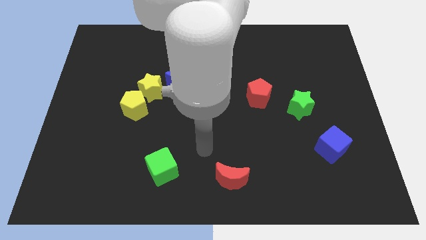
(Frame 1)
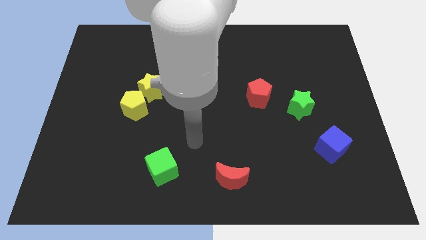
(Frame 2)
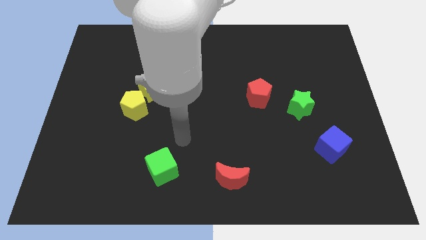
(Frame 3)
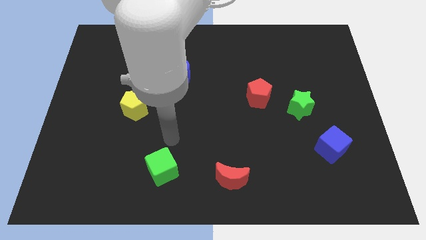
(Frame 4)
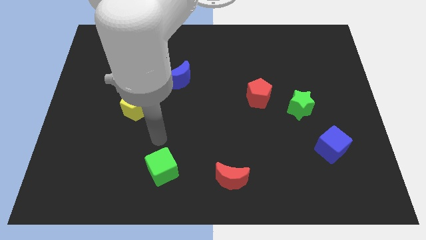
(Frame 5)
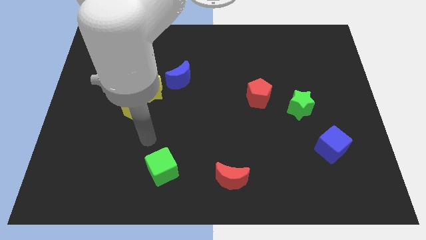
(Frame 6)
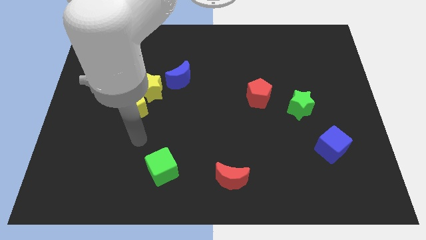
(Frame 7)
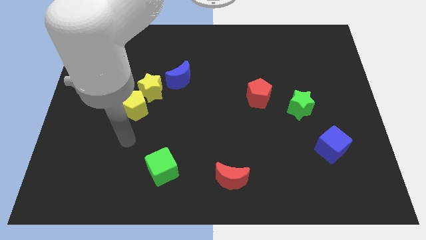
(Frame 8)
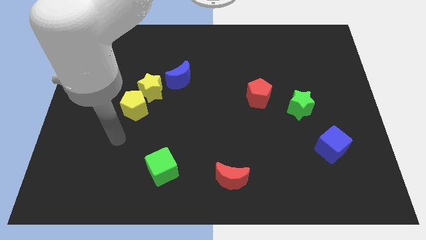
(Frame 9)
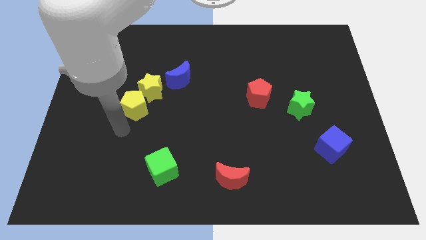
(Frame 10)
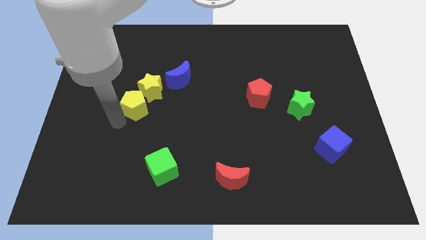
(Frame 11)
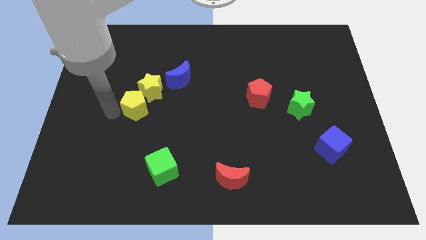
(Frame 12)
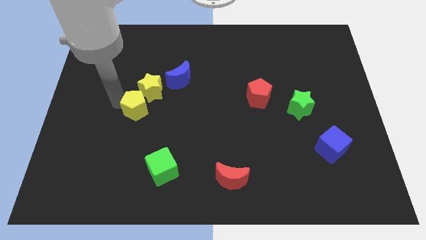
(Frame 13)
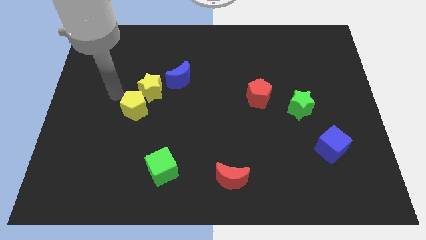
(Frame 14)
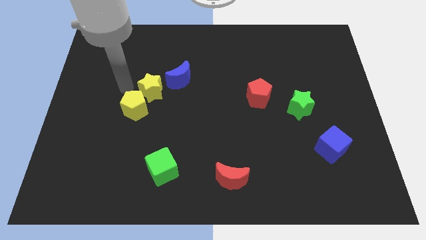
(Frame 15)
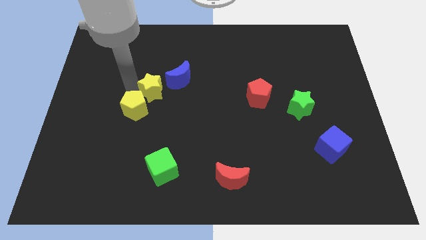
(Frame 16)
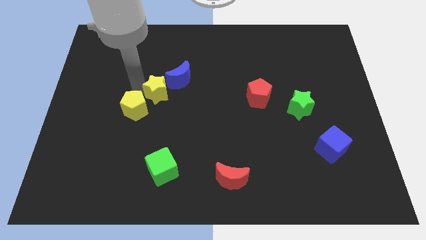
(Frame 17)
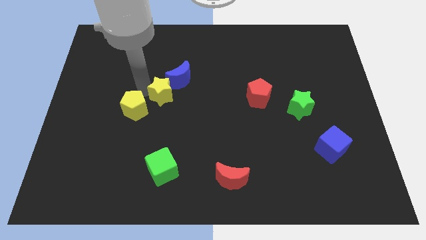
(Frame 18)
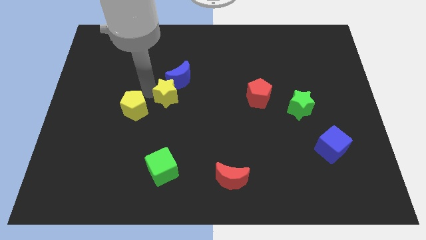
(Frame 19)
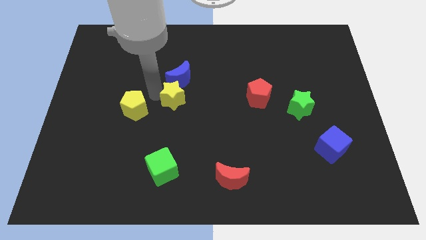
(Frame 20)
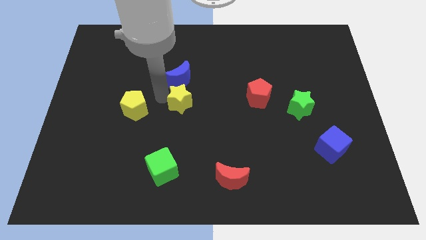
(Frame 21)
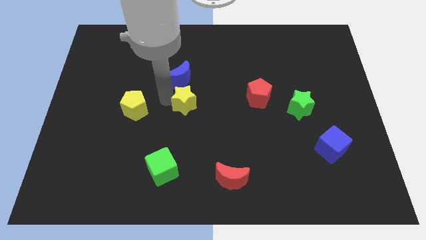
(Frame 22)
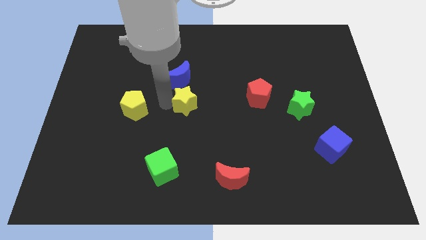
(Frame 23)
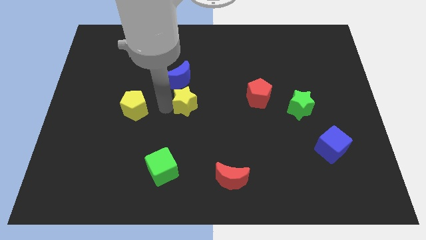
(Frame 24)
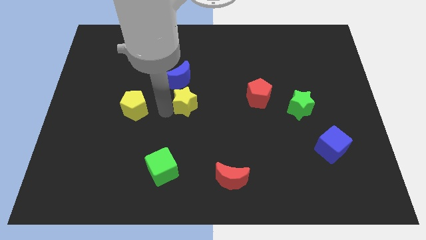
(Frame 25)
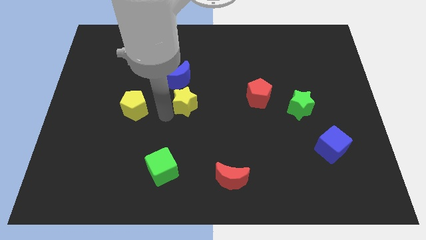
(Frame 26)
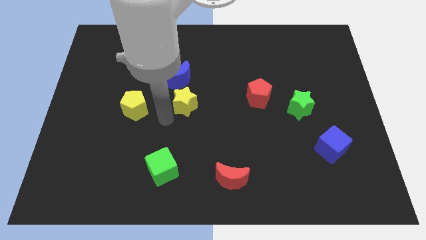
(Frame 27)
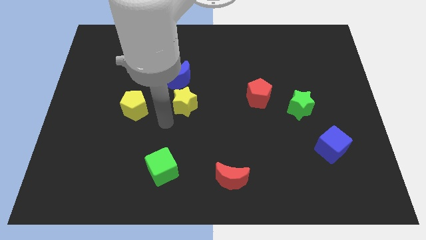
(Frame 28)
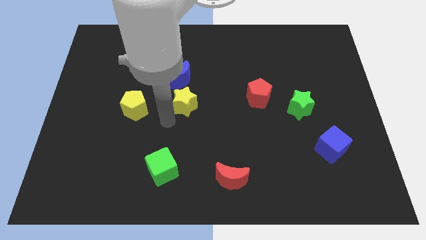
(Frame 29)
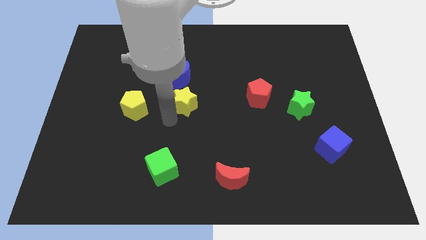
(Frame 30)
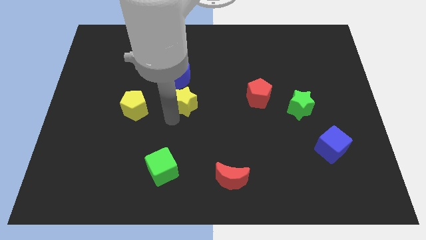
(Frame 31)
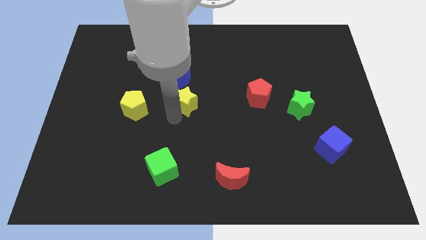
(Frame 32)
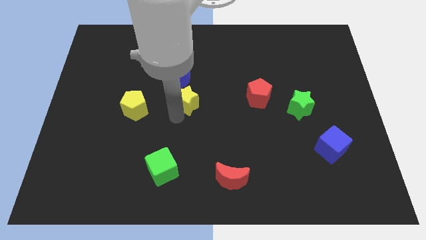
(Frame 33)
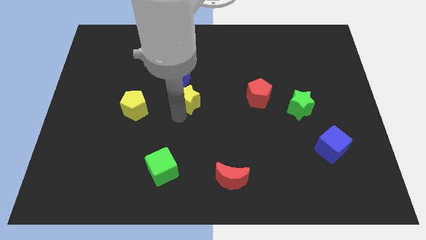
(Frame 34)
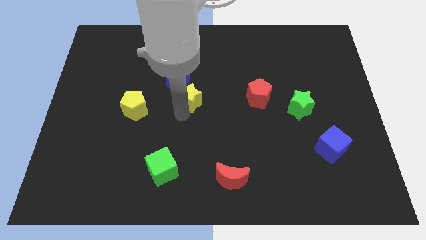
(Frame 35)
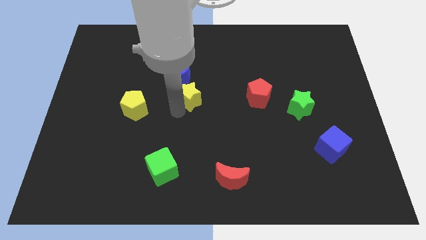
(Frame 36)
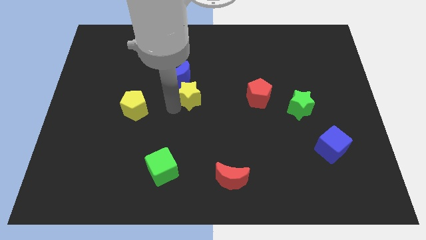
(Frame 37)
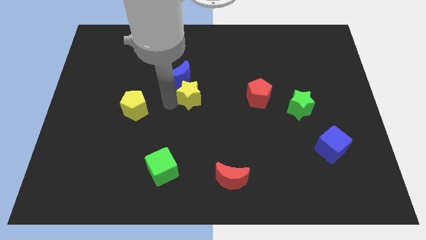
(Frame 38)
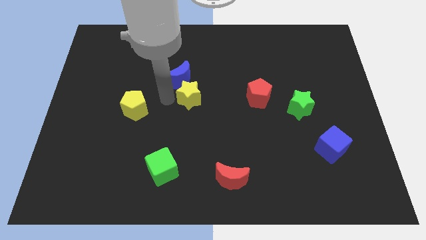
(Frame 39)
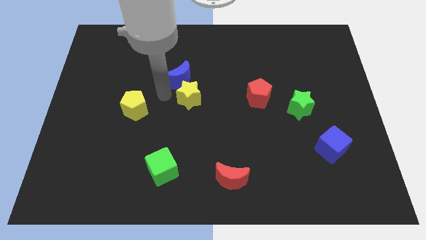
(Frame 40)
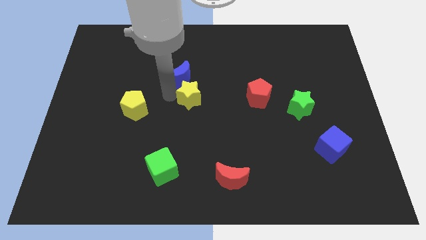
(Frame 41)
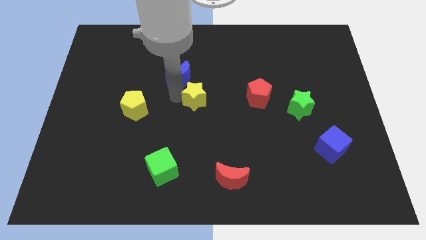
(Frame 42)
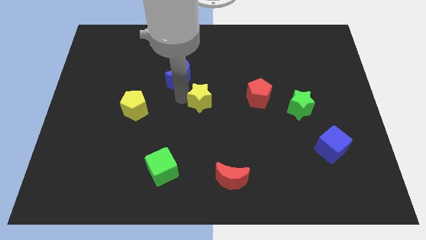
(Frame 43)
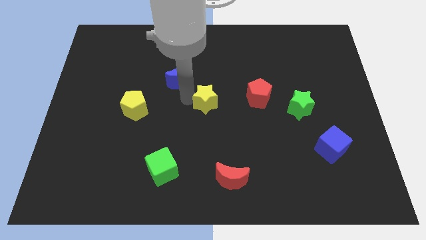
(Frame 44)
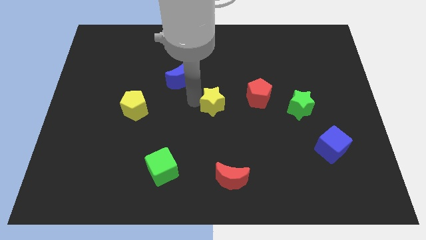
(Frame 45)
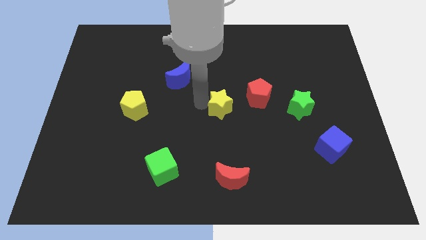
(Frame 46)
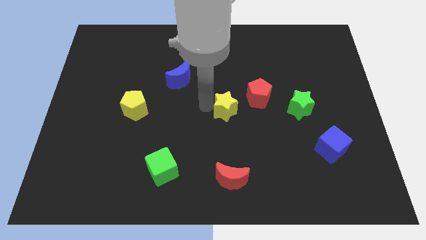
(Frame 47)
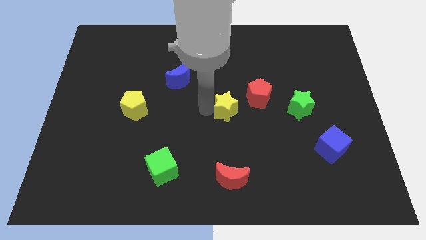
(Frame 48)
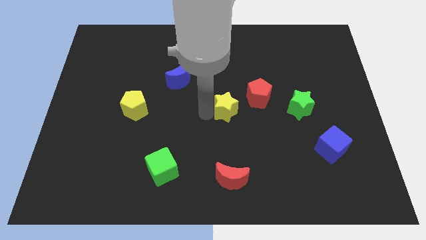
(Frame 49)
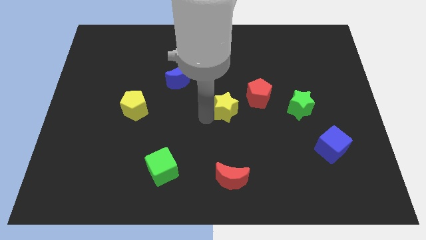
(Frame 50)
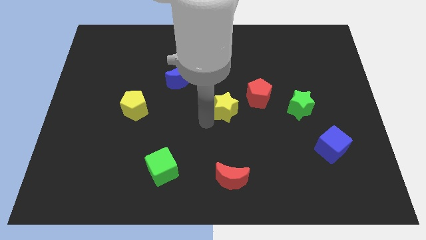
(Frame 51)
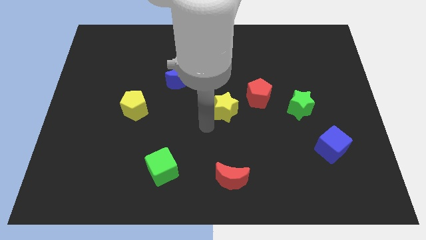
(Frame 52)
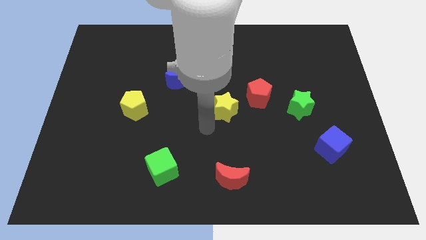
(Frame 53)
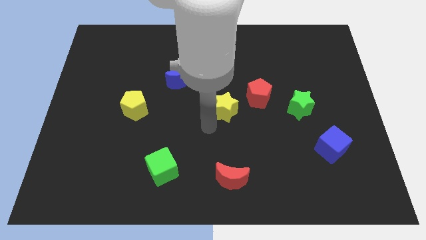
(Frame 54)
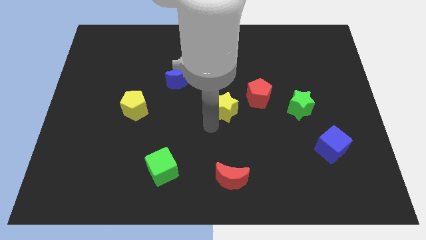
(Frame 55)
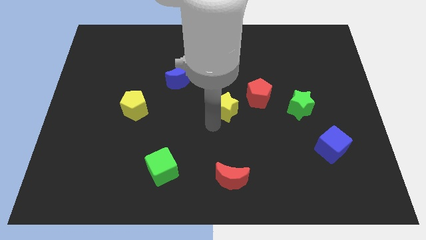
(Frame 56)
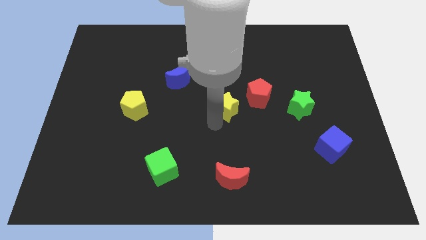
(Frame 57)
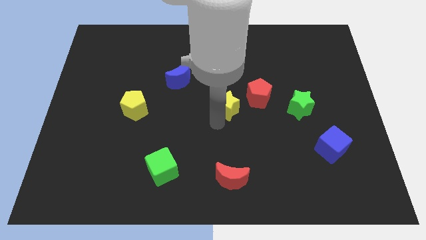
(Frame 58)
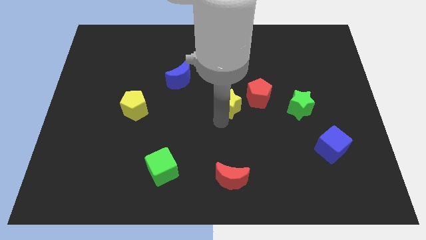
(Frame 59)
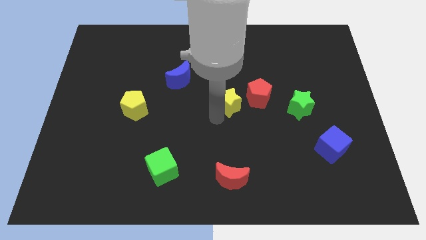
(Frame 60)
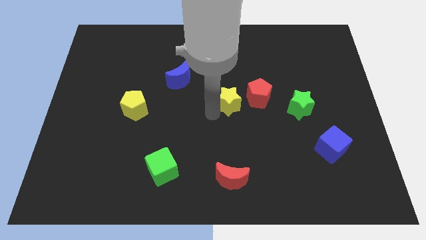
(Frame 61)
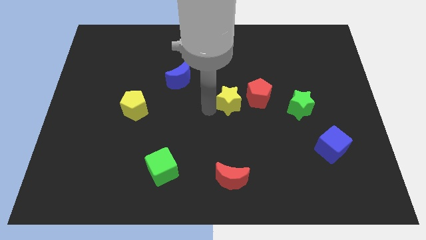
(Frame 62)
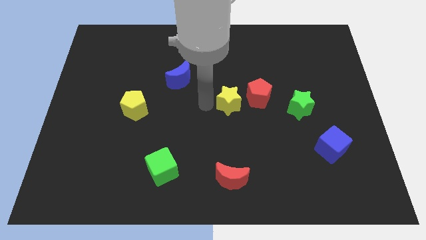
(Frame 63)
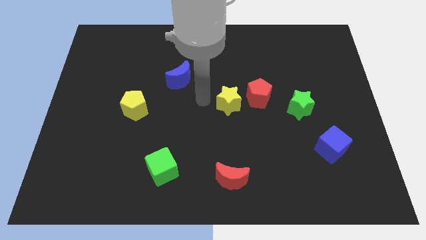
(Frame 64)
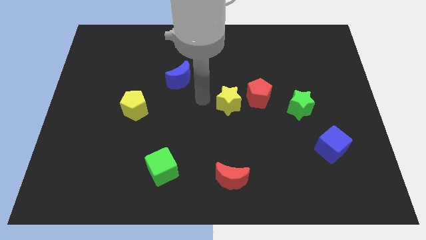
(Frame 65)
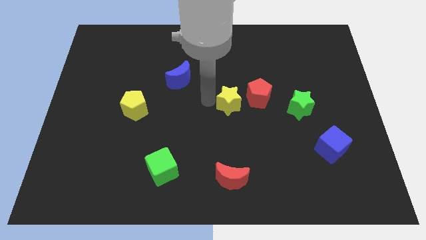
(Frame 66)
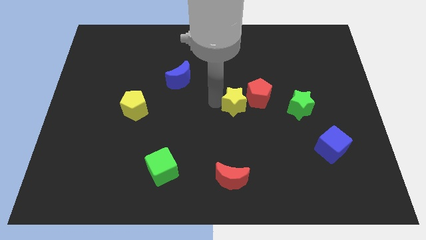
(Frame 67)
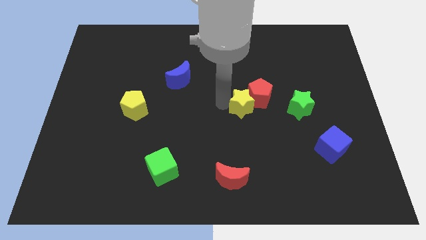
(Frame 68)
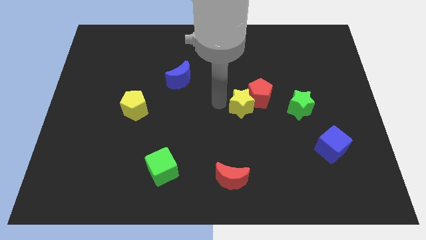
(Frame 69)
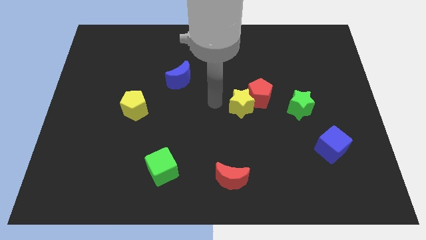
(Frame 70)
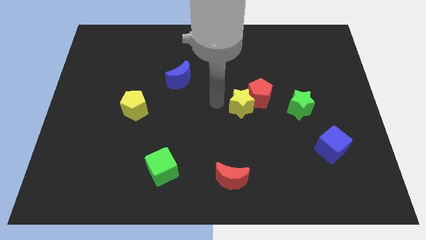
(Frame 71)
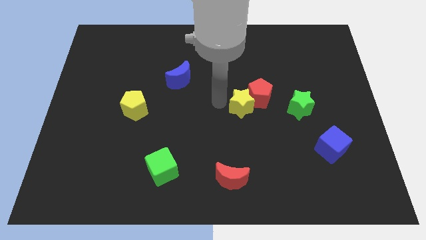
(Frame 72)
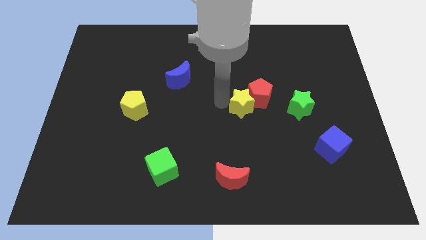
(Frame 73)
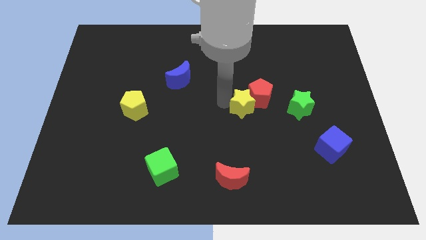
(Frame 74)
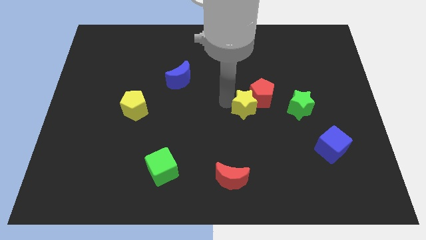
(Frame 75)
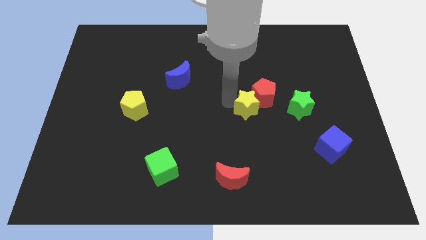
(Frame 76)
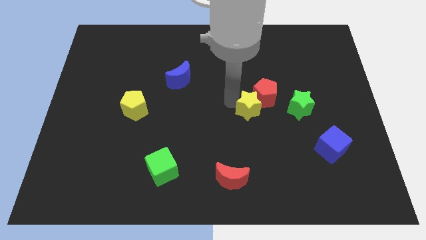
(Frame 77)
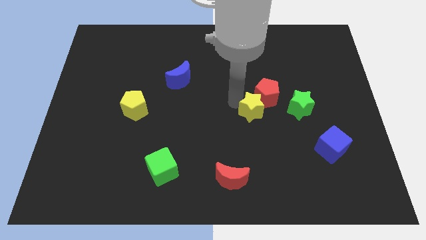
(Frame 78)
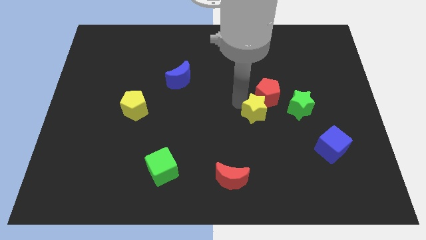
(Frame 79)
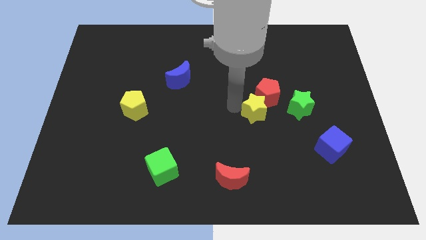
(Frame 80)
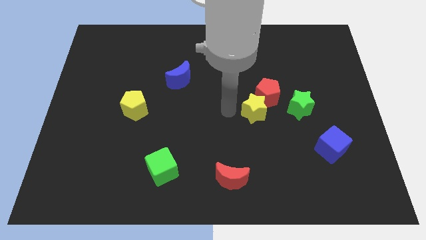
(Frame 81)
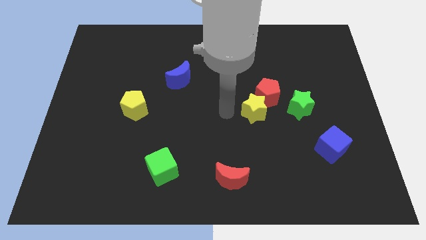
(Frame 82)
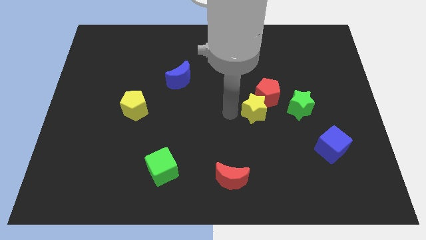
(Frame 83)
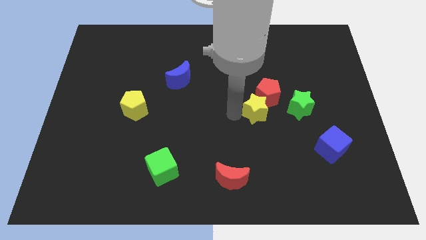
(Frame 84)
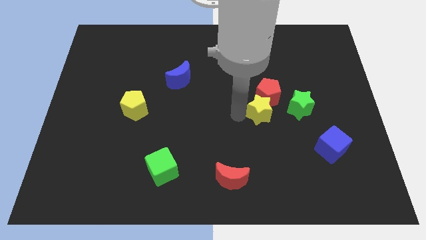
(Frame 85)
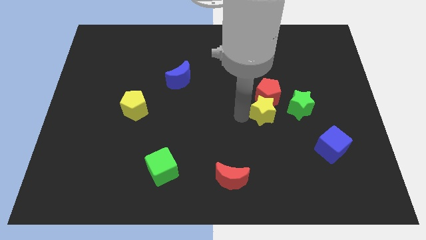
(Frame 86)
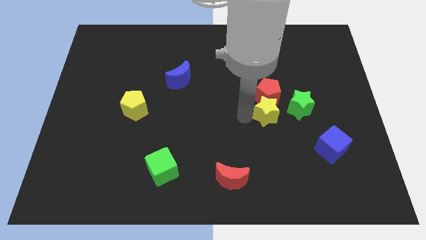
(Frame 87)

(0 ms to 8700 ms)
push the yellow star diagonally down and to the right of the red pentagon
